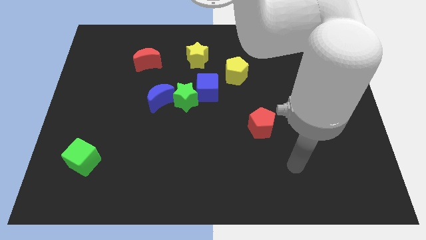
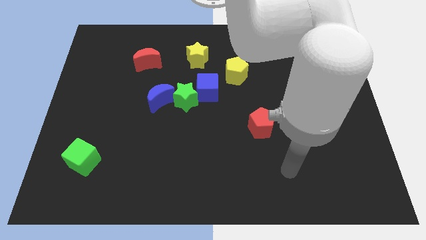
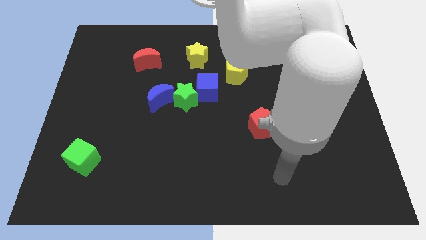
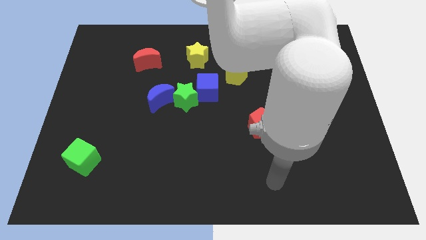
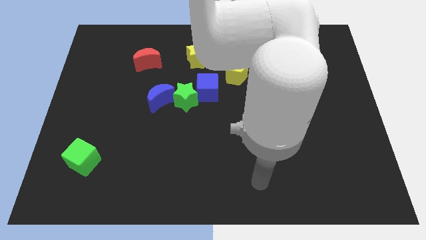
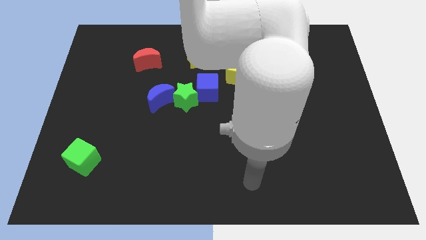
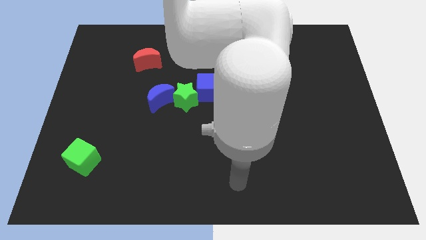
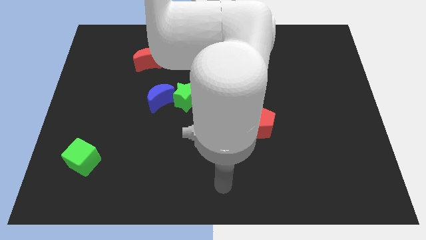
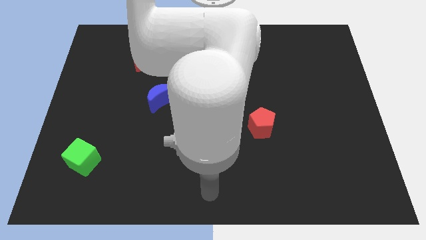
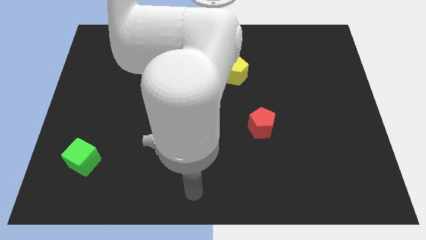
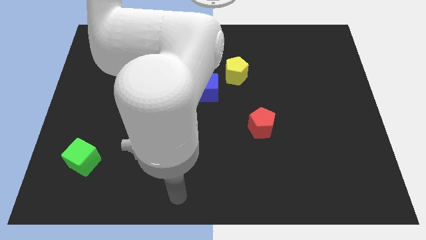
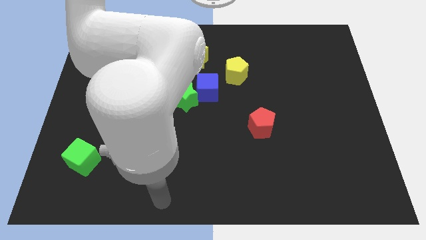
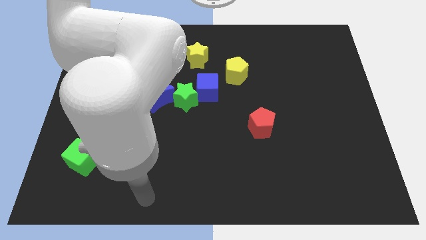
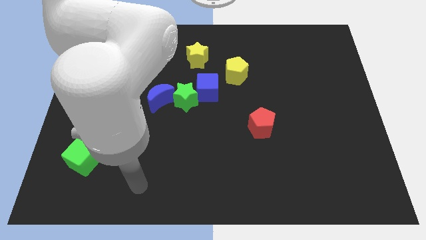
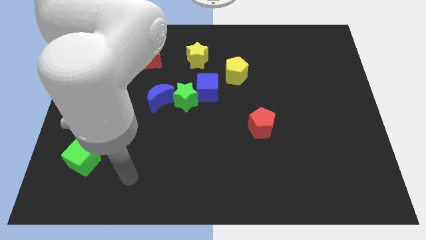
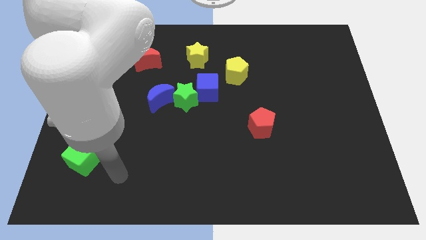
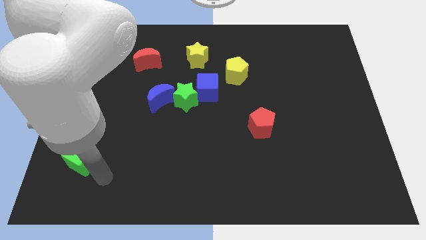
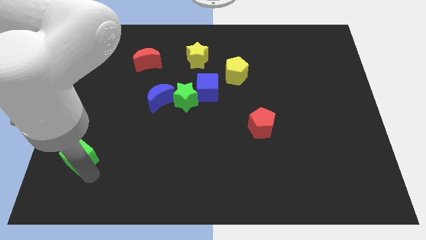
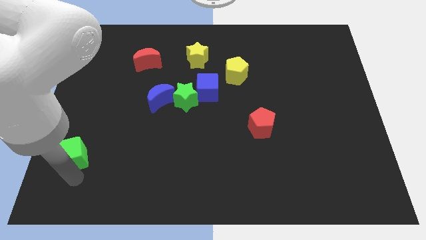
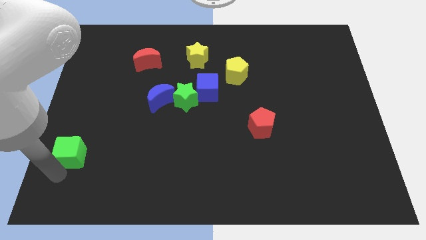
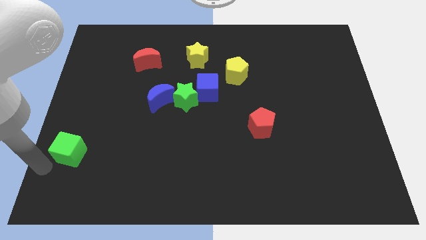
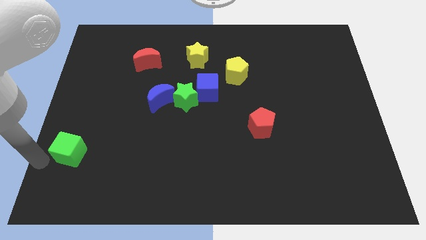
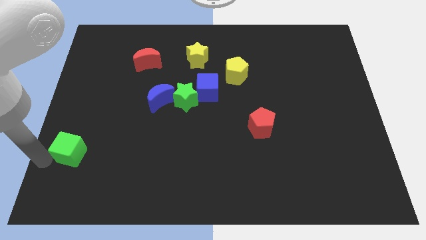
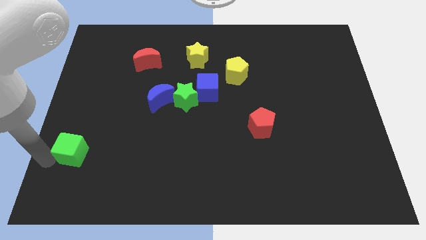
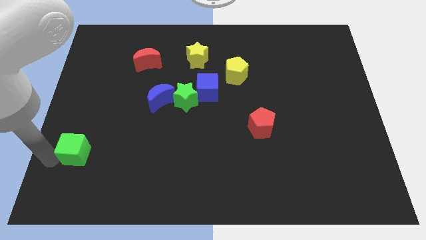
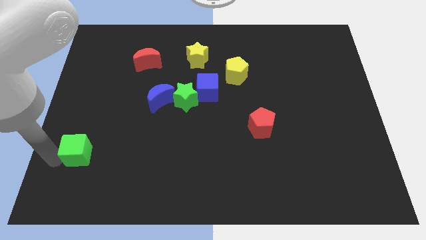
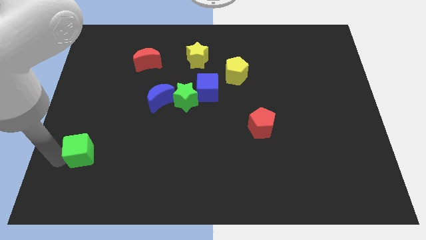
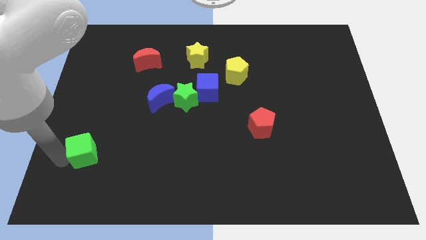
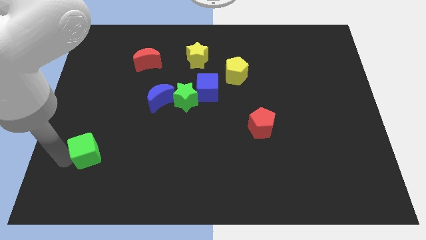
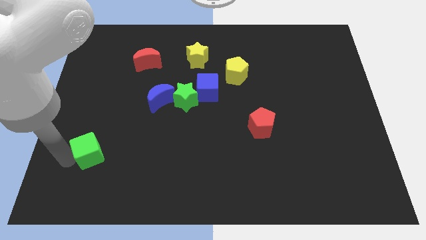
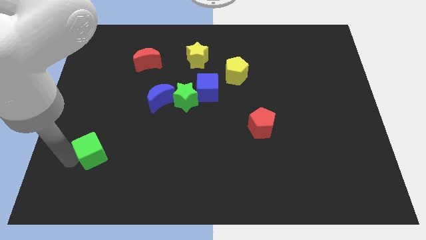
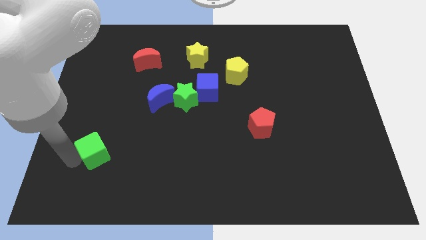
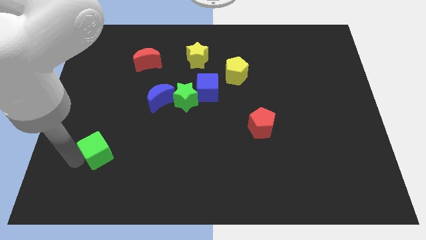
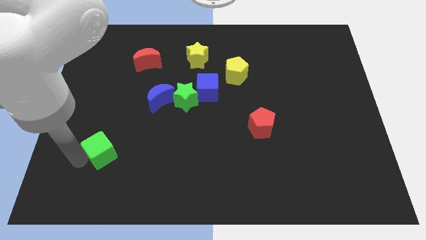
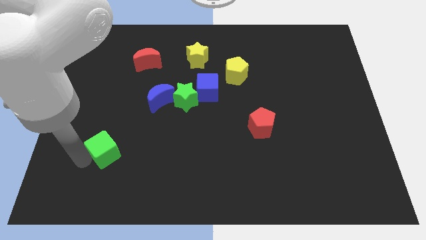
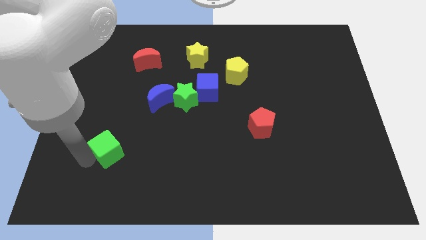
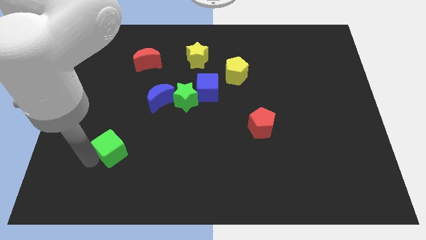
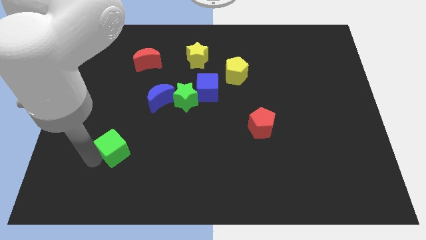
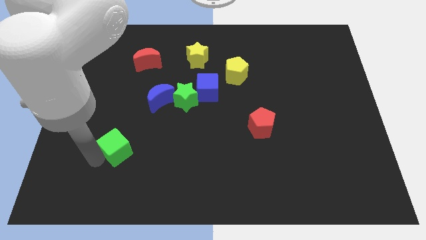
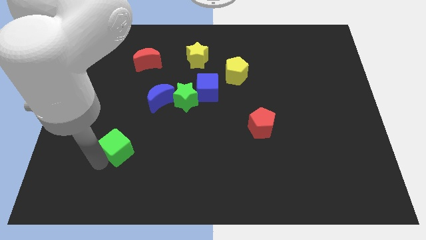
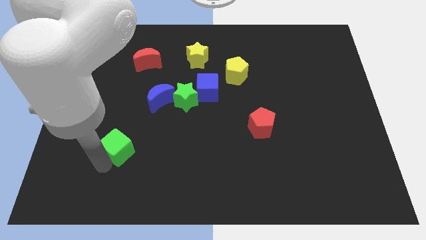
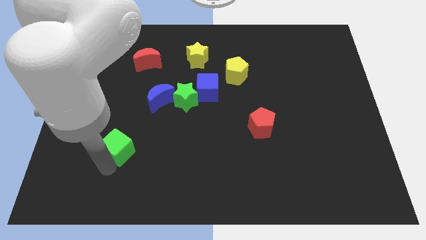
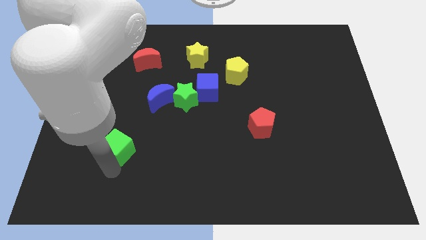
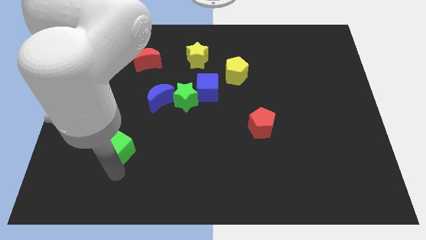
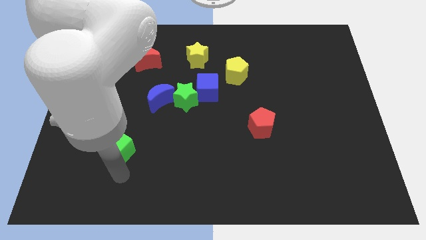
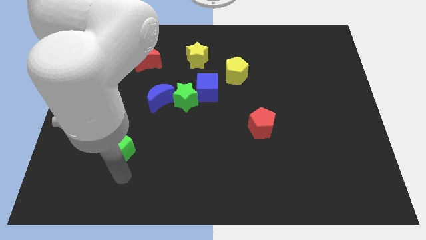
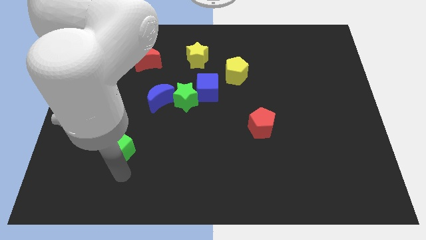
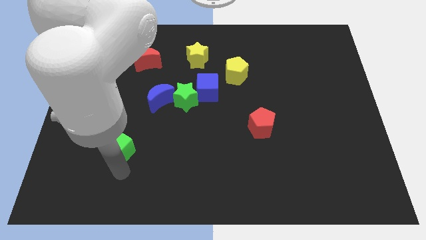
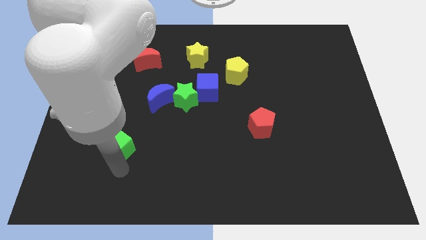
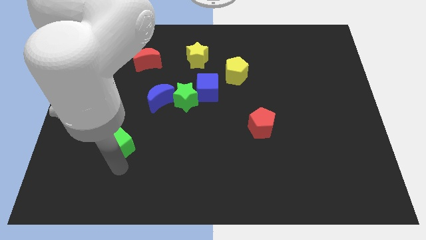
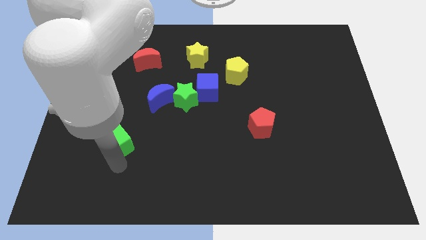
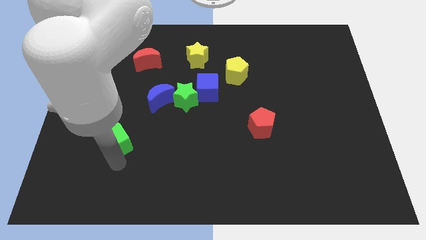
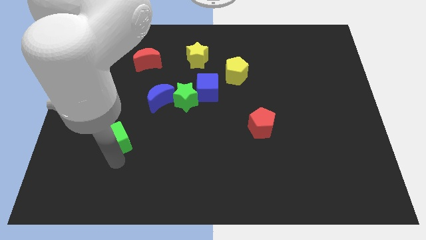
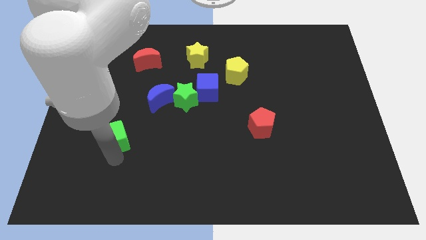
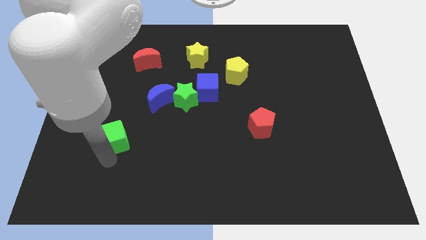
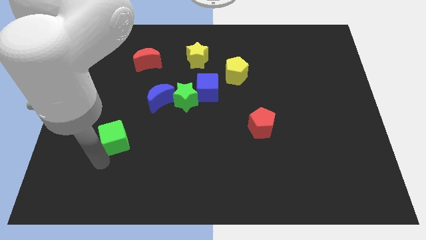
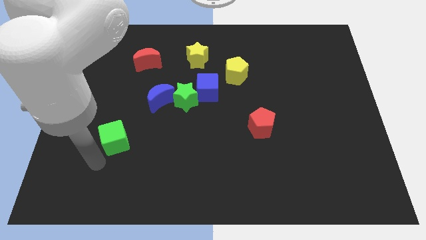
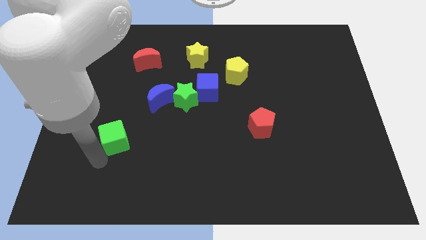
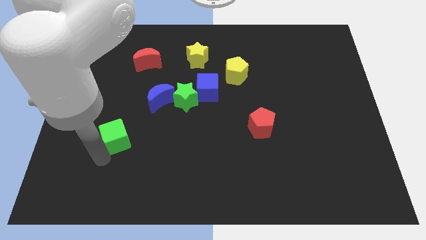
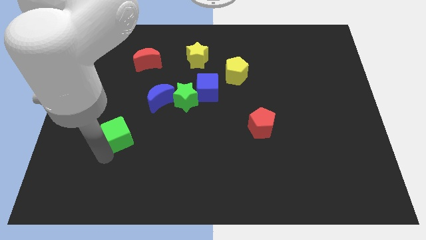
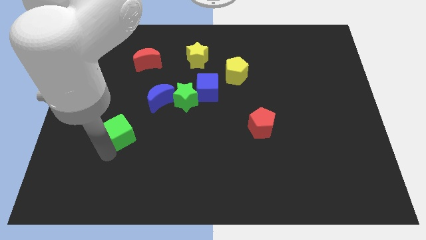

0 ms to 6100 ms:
put the green cube diagonally down and to the left of the blue moon

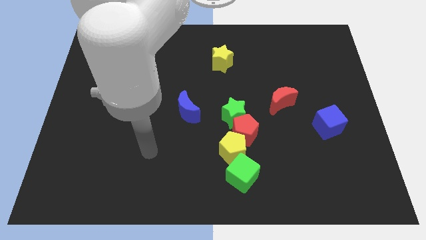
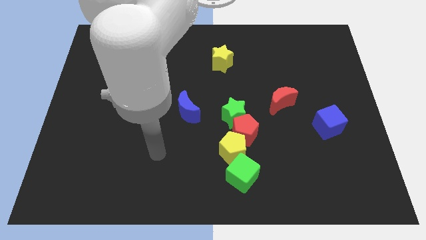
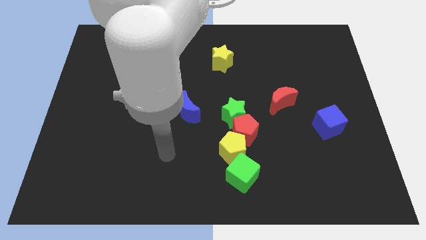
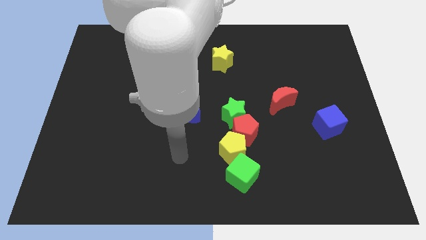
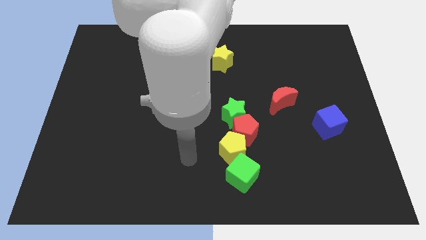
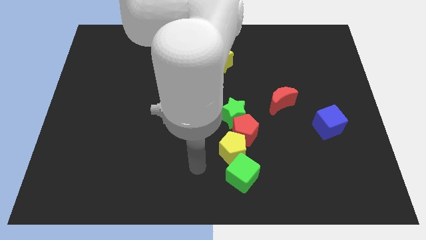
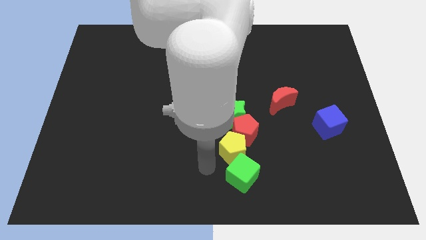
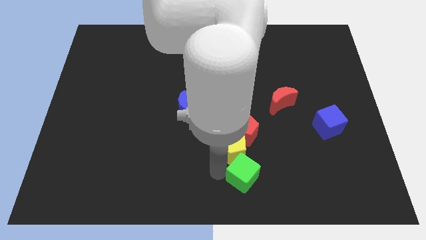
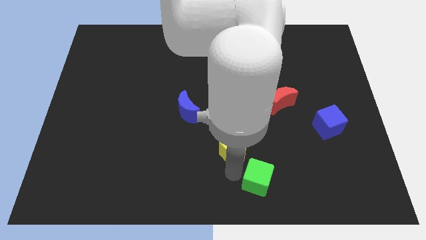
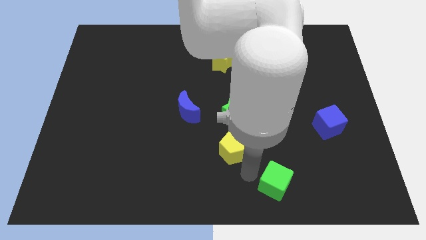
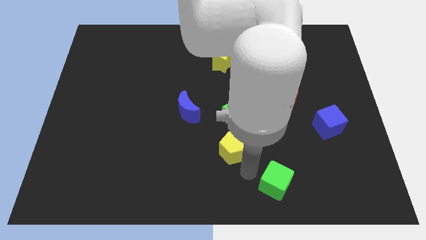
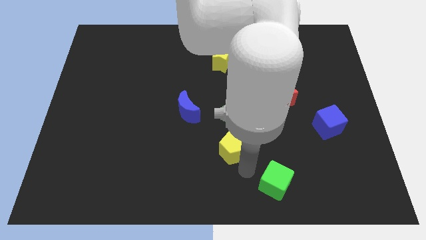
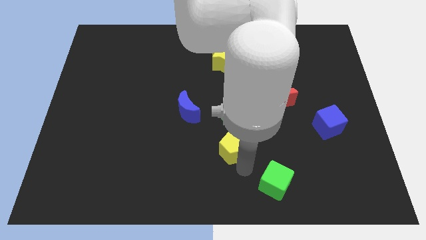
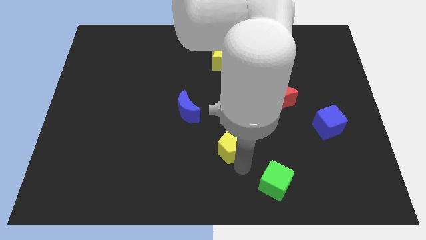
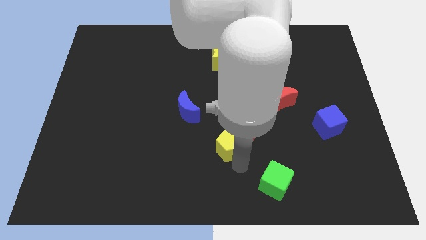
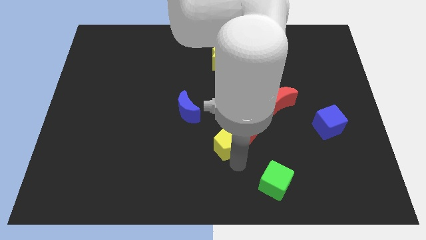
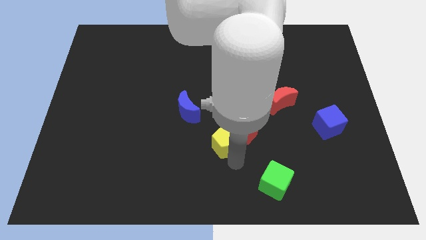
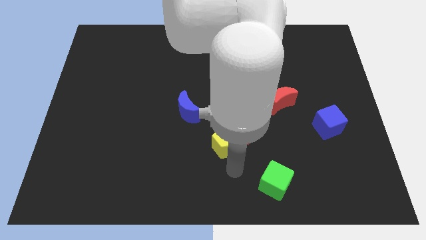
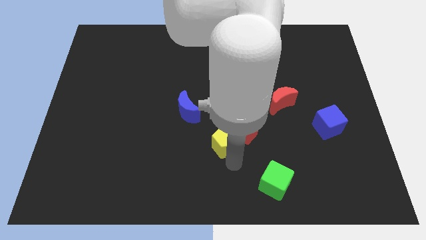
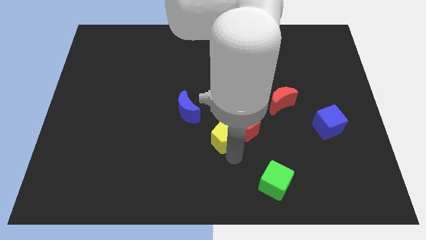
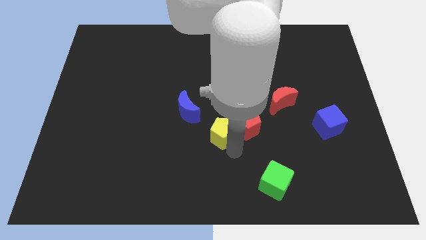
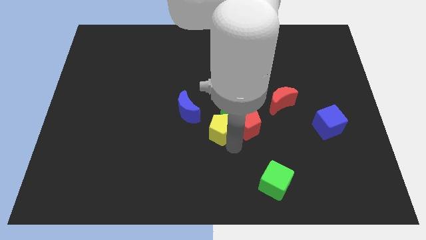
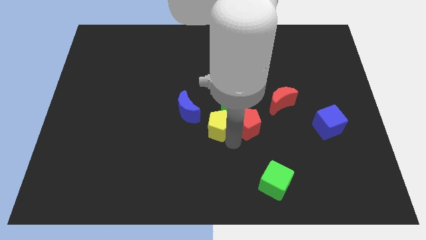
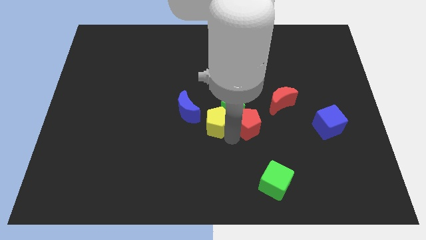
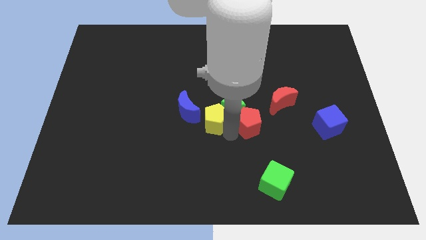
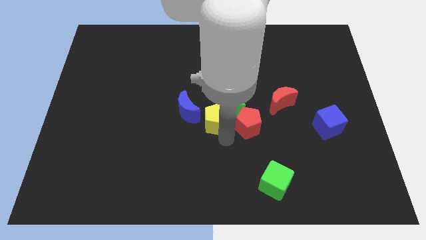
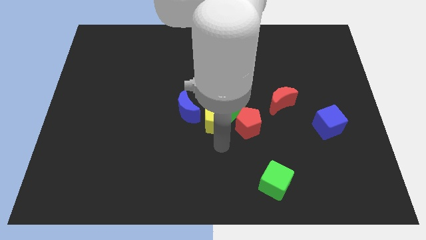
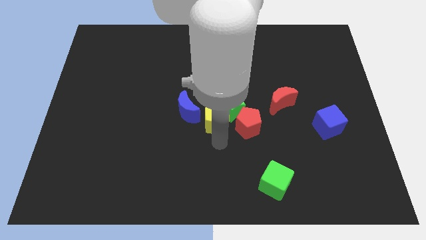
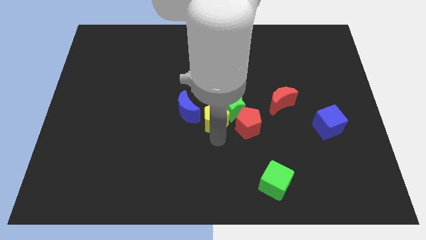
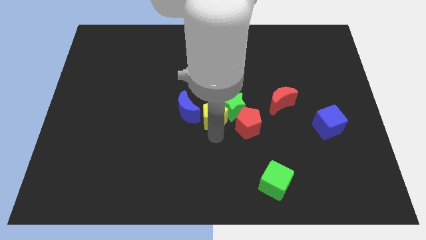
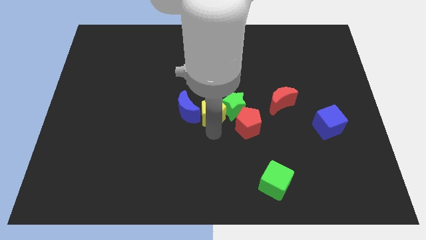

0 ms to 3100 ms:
put the yellow pentagon to the top left side of the green star
